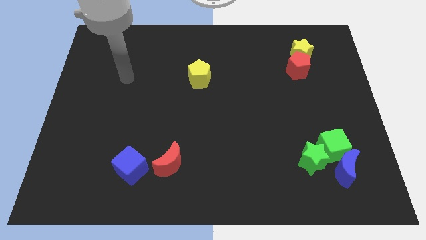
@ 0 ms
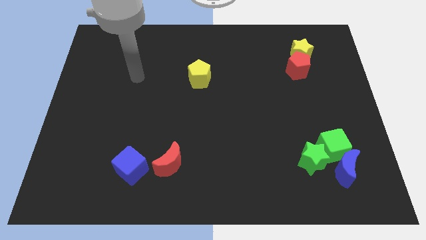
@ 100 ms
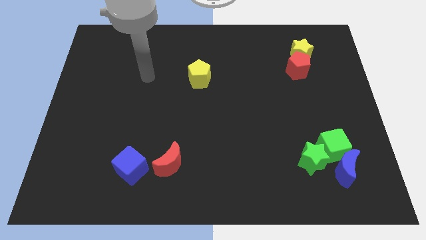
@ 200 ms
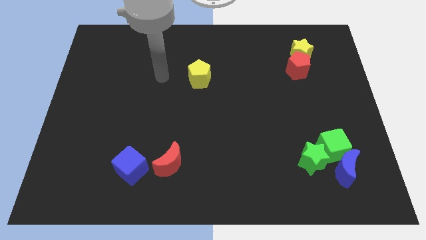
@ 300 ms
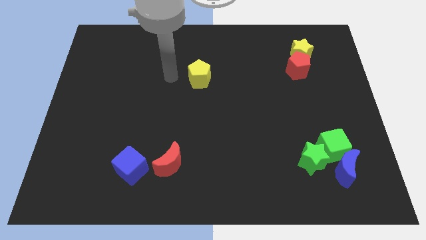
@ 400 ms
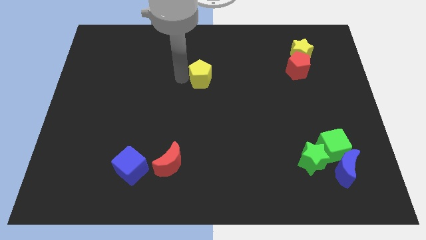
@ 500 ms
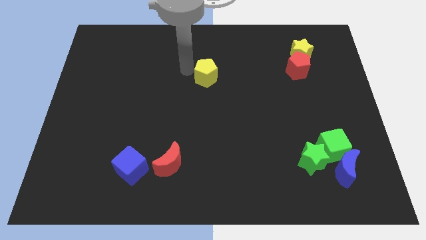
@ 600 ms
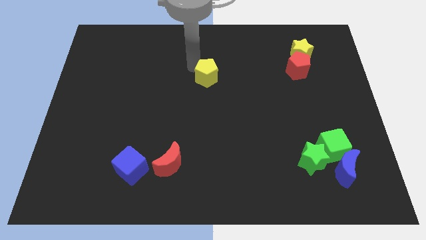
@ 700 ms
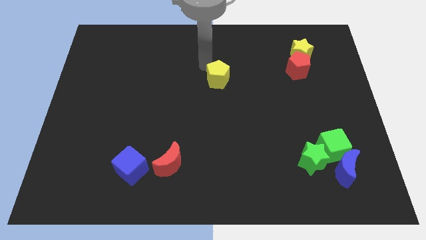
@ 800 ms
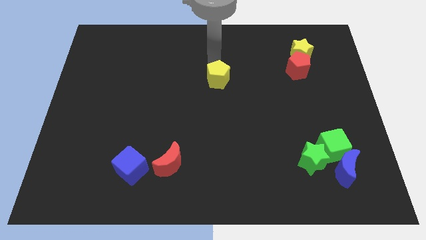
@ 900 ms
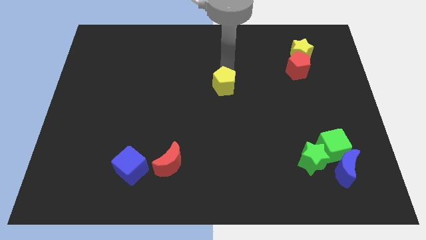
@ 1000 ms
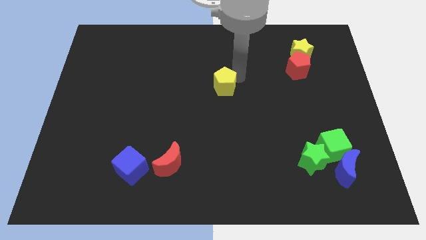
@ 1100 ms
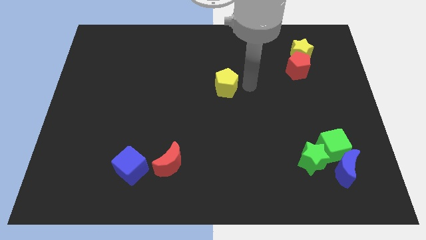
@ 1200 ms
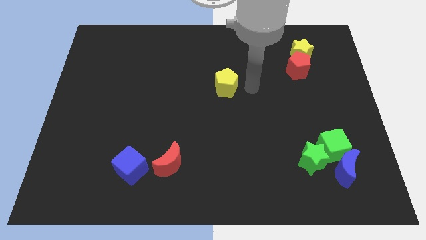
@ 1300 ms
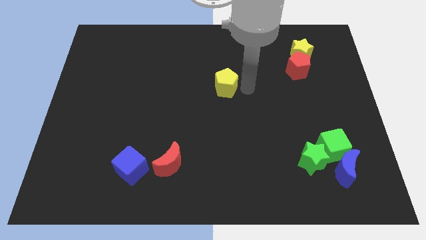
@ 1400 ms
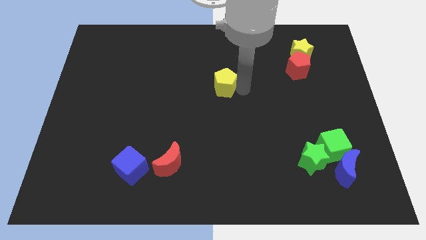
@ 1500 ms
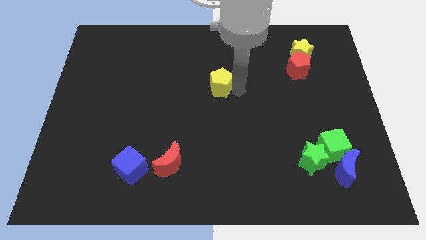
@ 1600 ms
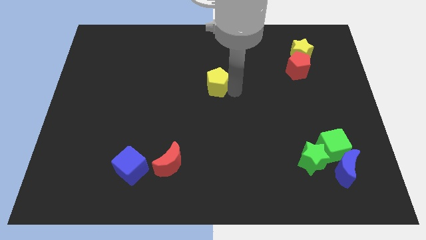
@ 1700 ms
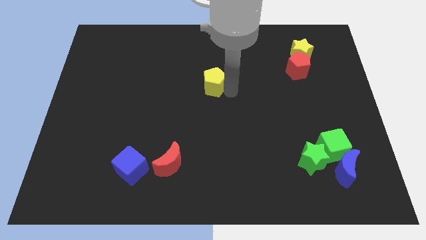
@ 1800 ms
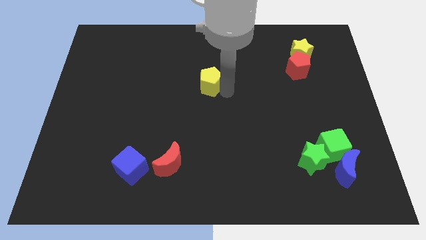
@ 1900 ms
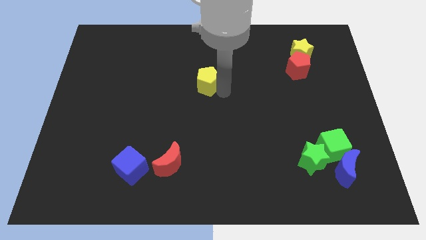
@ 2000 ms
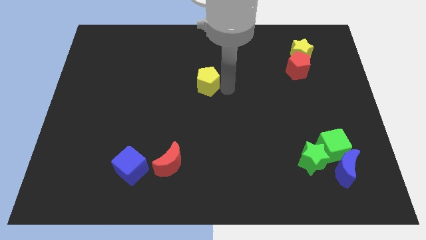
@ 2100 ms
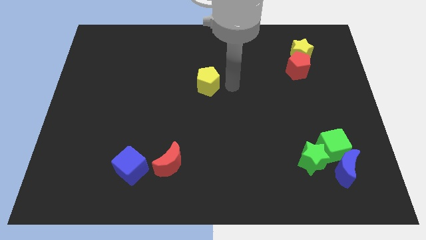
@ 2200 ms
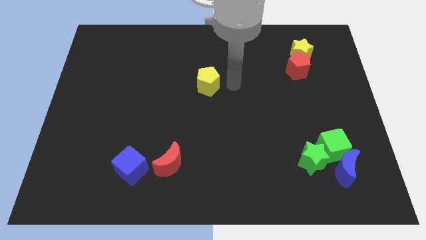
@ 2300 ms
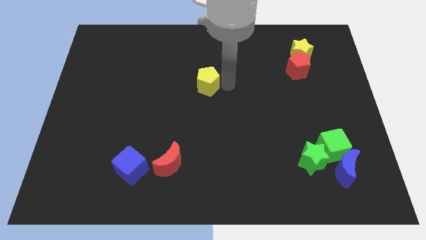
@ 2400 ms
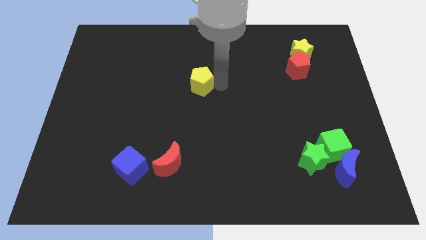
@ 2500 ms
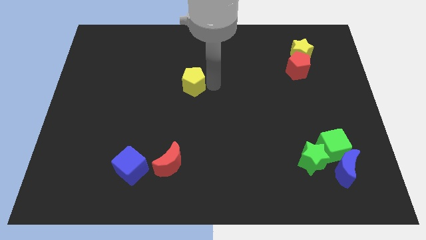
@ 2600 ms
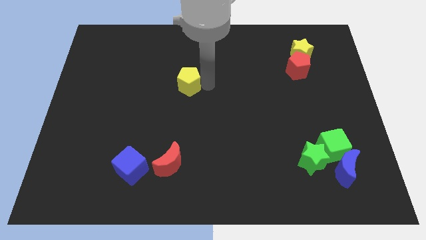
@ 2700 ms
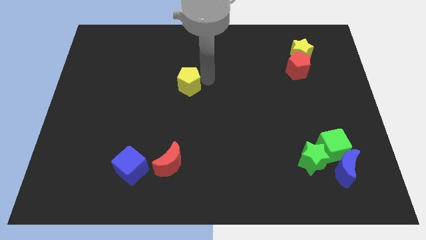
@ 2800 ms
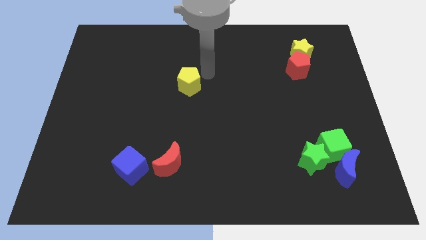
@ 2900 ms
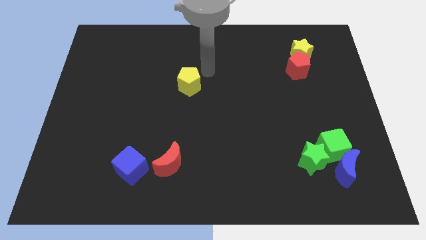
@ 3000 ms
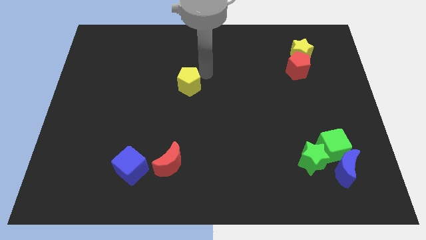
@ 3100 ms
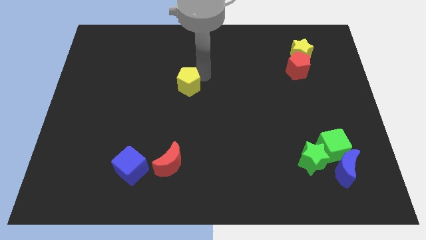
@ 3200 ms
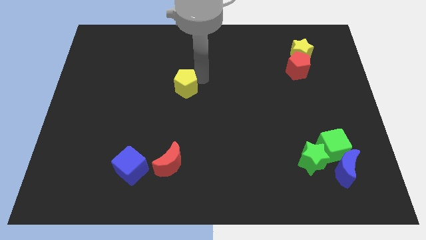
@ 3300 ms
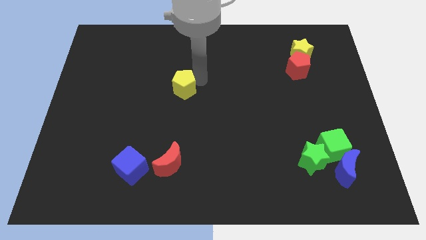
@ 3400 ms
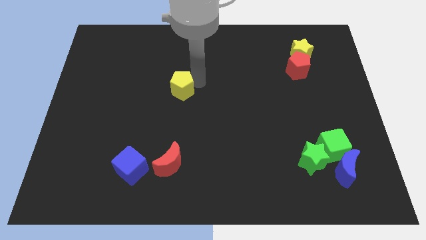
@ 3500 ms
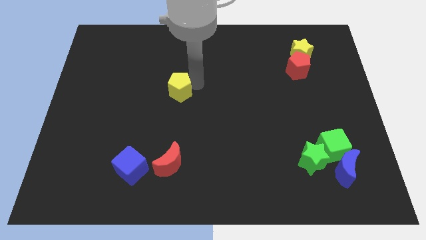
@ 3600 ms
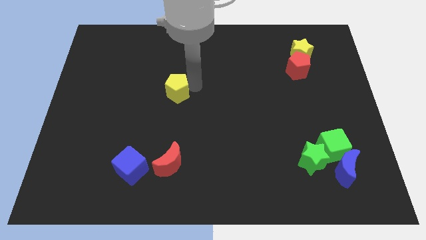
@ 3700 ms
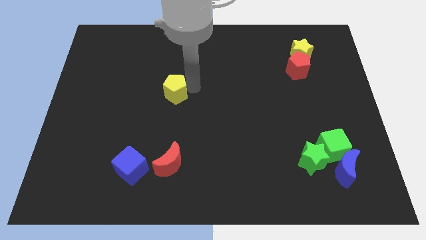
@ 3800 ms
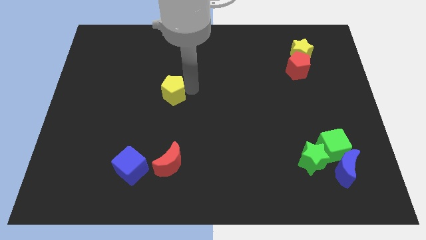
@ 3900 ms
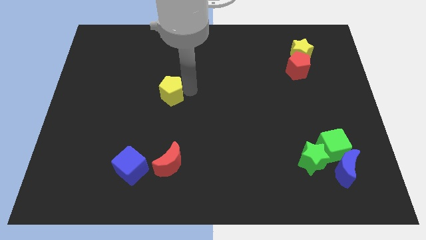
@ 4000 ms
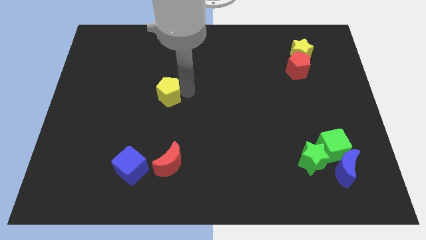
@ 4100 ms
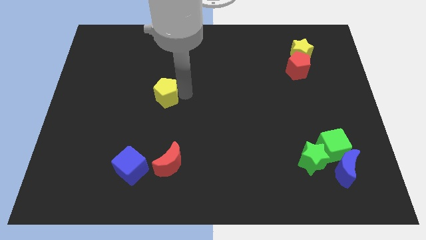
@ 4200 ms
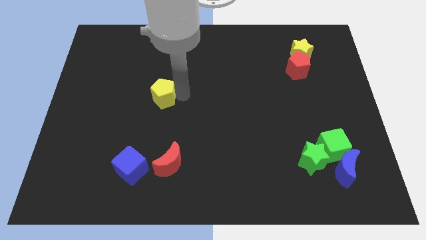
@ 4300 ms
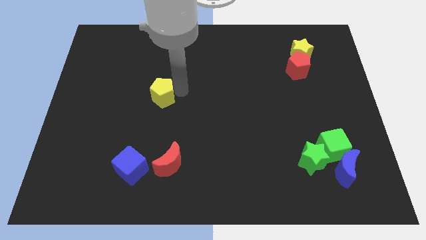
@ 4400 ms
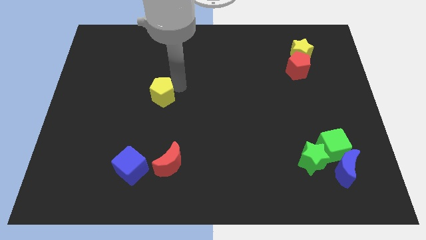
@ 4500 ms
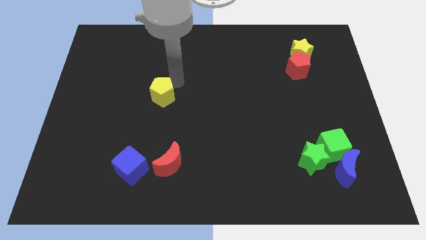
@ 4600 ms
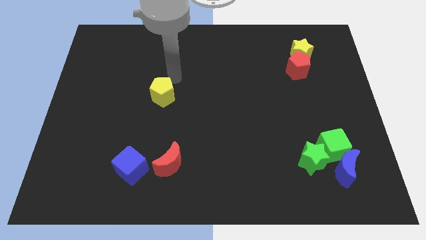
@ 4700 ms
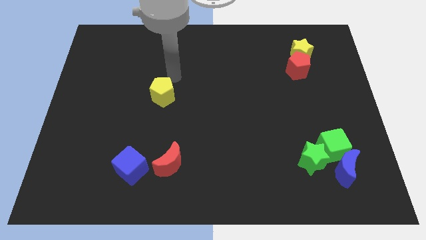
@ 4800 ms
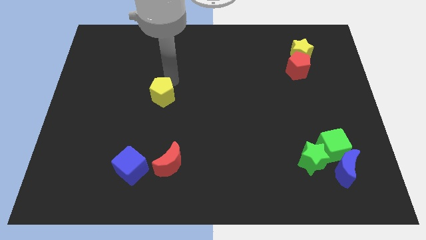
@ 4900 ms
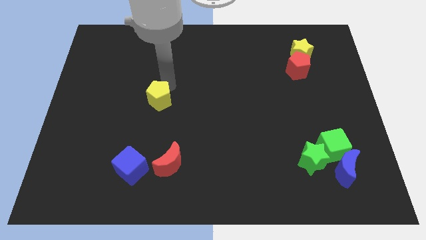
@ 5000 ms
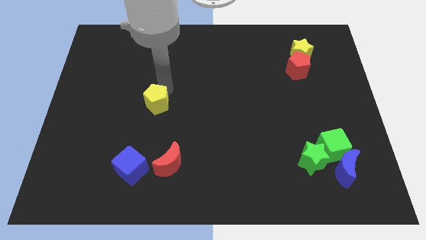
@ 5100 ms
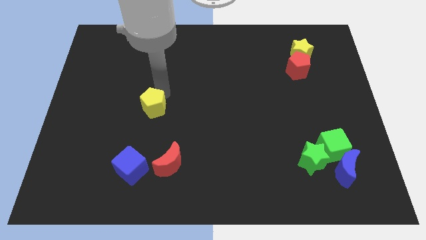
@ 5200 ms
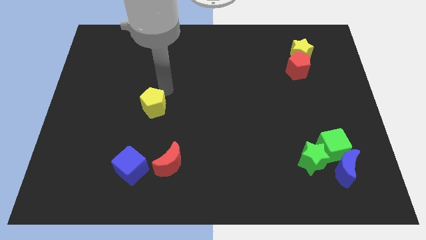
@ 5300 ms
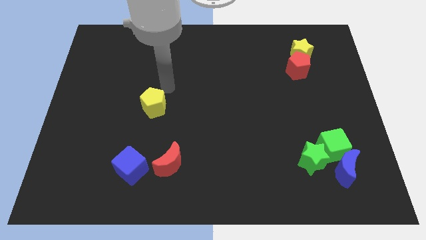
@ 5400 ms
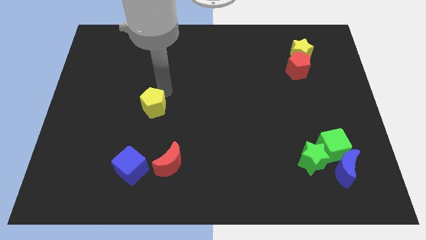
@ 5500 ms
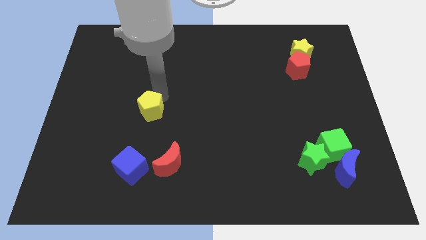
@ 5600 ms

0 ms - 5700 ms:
push the yellow pentagon above the blue cube

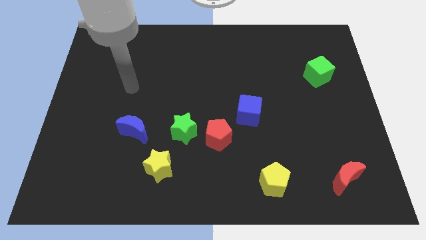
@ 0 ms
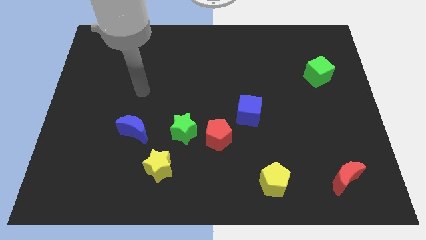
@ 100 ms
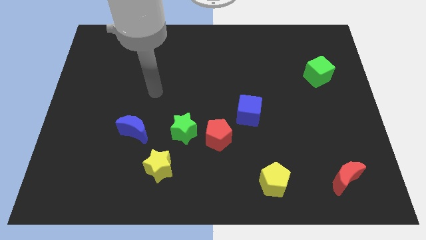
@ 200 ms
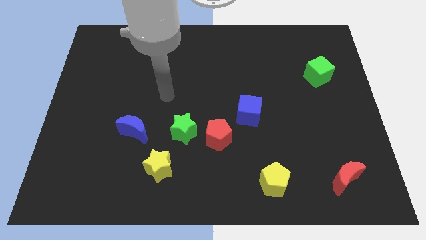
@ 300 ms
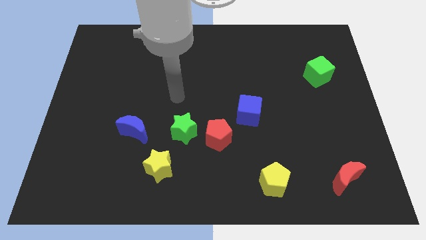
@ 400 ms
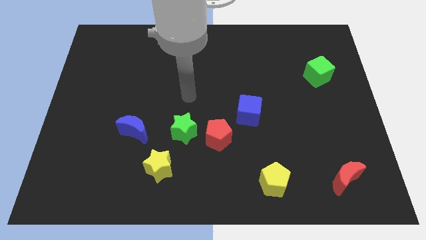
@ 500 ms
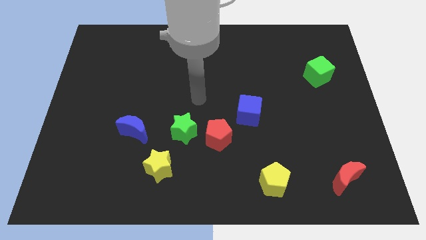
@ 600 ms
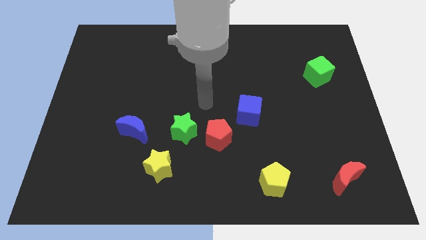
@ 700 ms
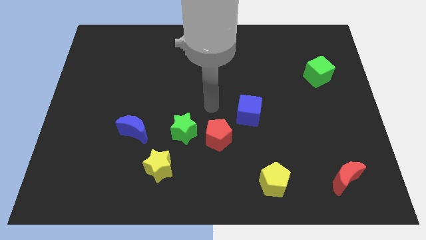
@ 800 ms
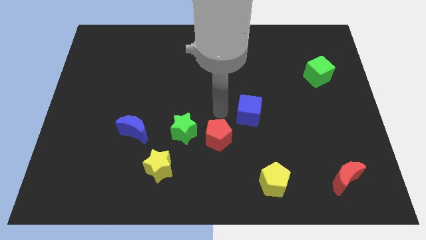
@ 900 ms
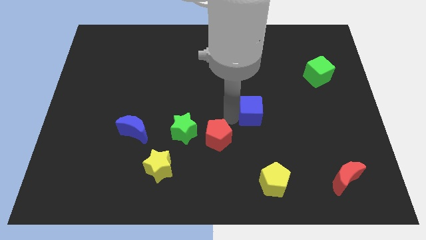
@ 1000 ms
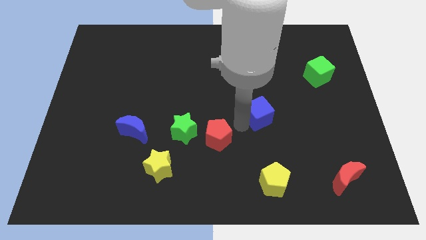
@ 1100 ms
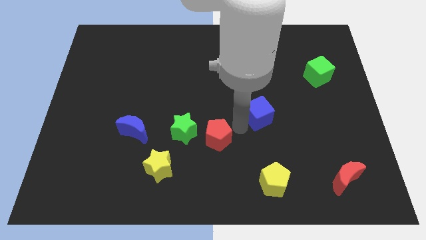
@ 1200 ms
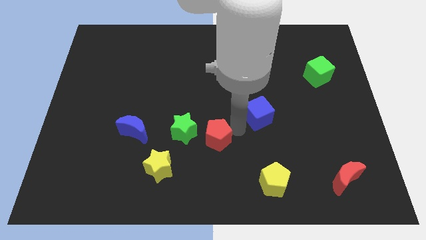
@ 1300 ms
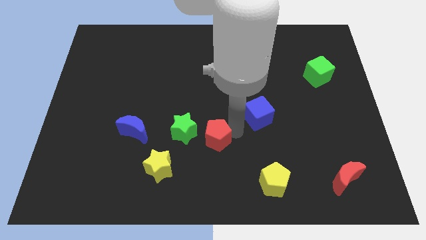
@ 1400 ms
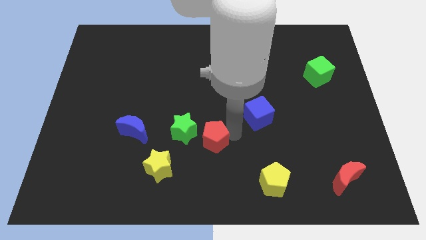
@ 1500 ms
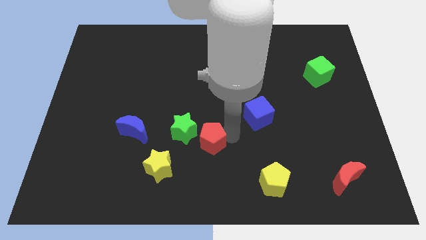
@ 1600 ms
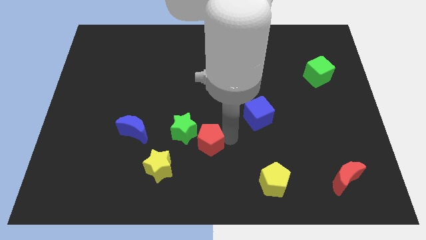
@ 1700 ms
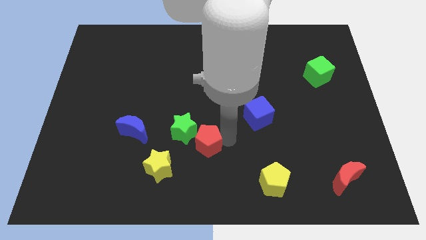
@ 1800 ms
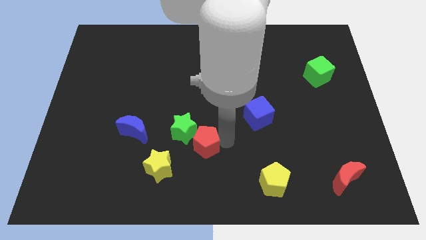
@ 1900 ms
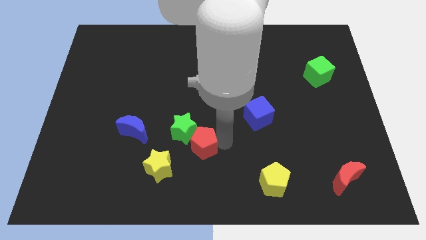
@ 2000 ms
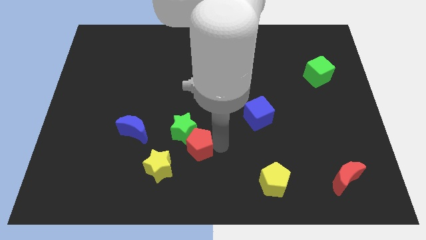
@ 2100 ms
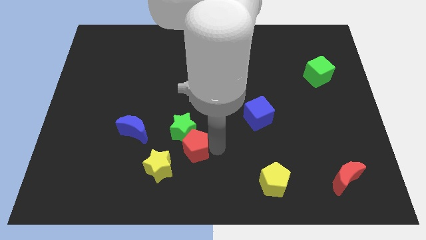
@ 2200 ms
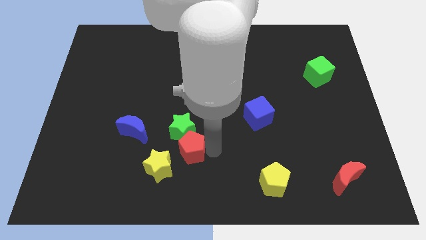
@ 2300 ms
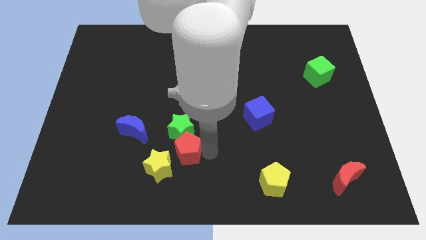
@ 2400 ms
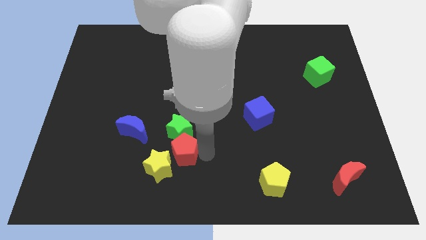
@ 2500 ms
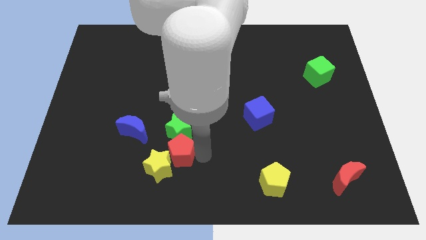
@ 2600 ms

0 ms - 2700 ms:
move the red pentagon to the bottom right of the blue moon
